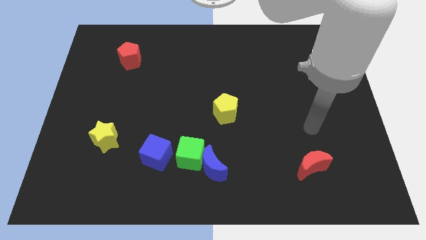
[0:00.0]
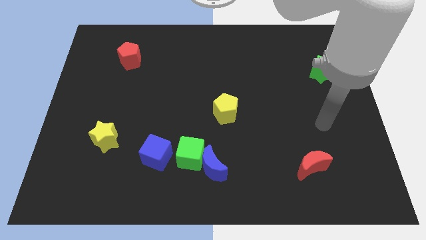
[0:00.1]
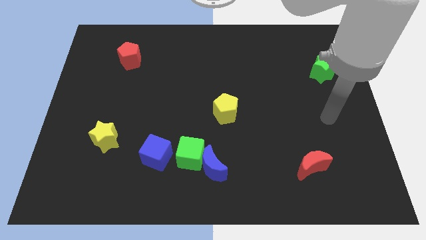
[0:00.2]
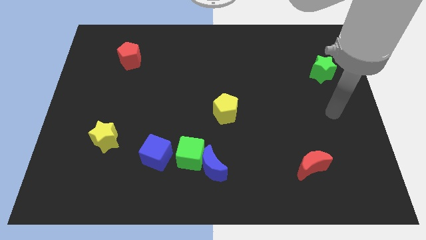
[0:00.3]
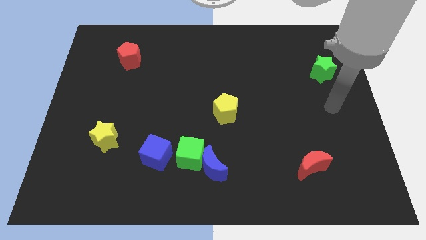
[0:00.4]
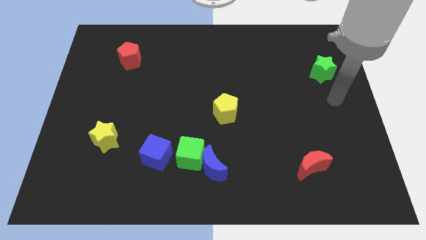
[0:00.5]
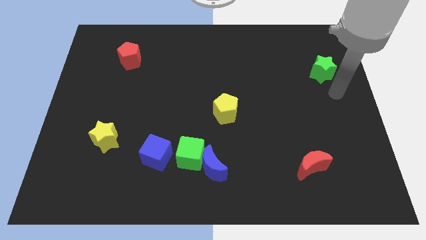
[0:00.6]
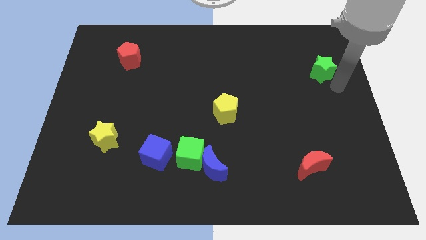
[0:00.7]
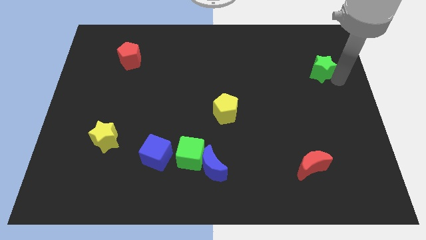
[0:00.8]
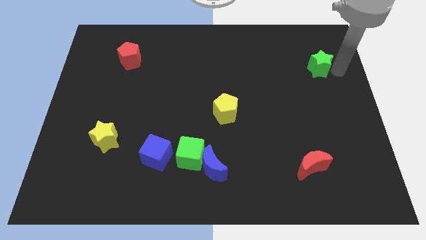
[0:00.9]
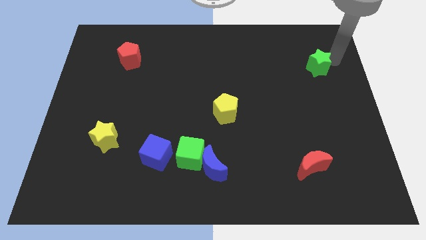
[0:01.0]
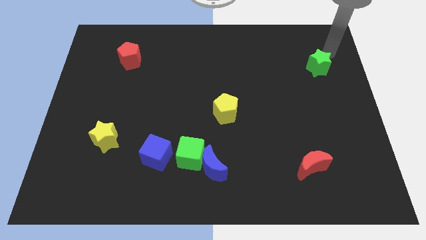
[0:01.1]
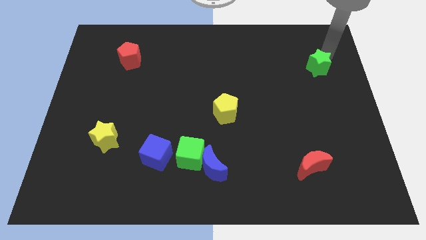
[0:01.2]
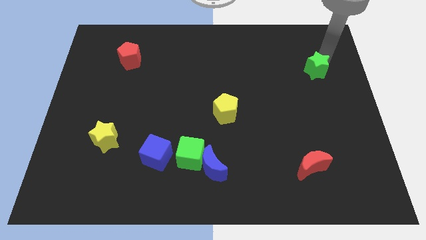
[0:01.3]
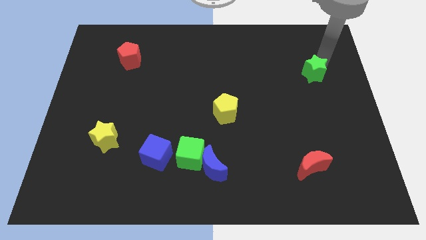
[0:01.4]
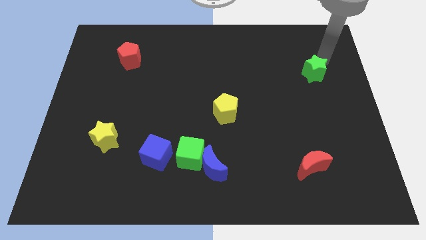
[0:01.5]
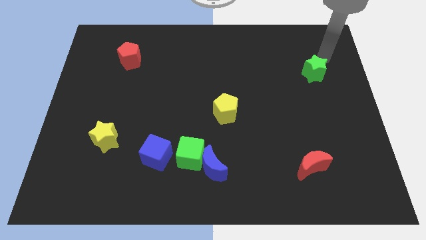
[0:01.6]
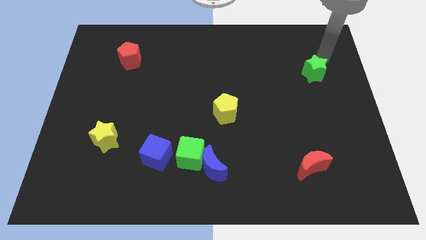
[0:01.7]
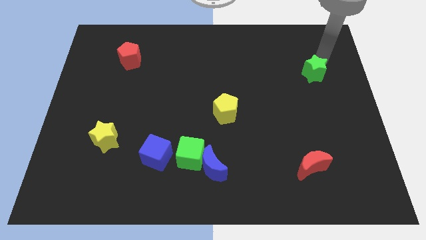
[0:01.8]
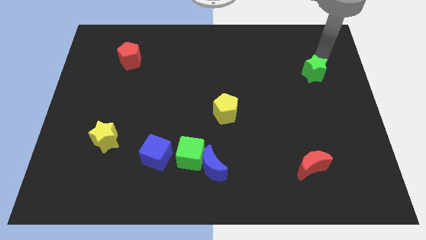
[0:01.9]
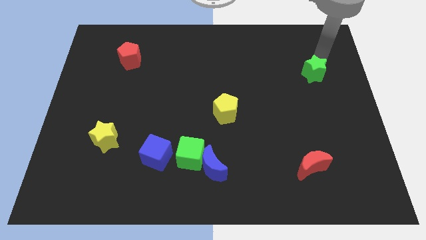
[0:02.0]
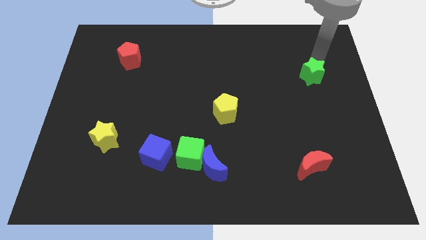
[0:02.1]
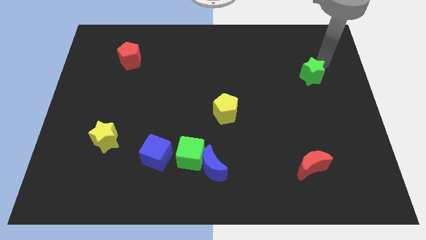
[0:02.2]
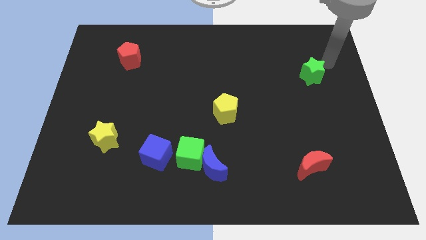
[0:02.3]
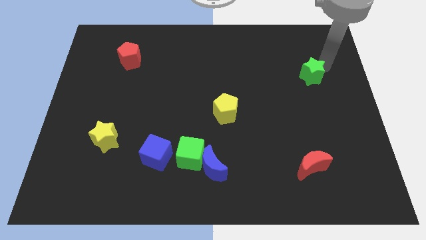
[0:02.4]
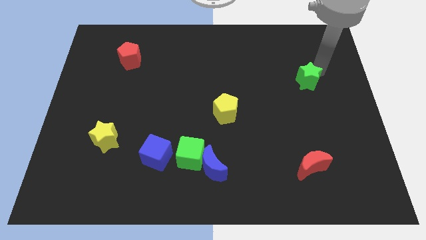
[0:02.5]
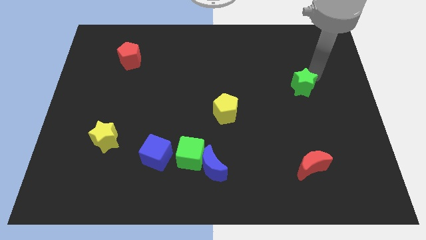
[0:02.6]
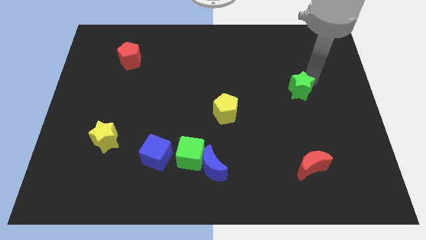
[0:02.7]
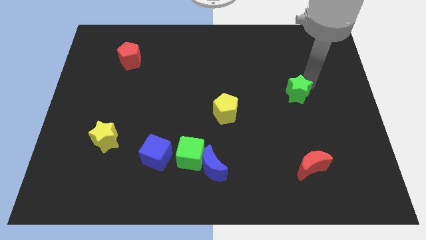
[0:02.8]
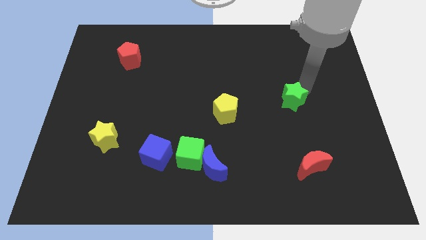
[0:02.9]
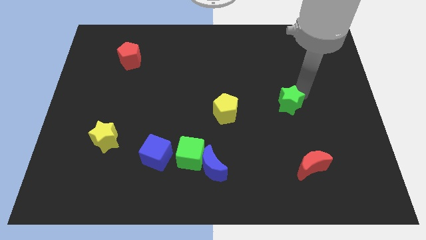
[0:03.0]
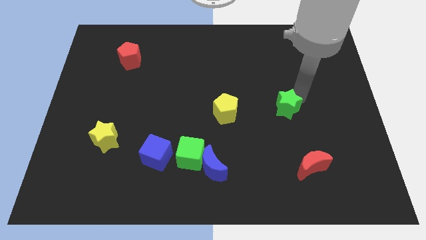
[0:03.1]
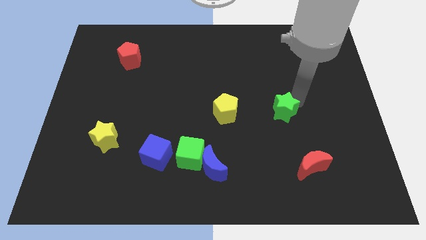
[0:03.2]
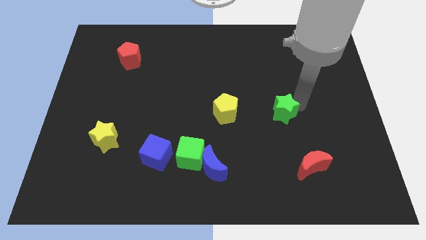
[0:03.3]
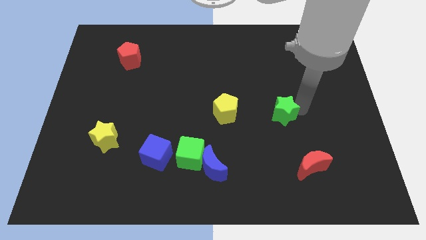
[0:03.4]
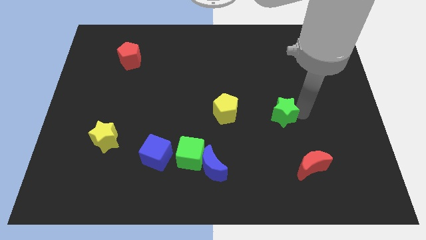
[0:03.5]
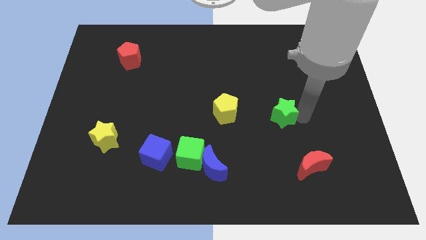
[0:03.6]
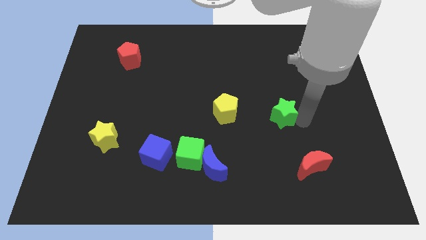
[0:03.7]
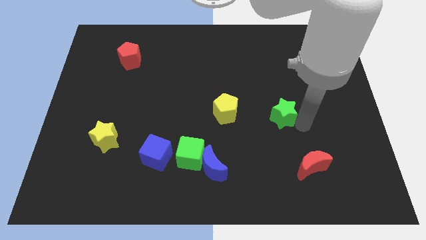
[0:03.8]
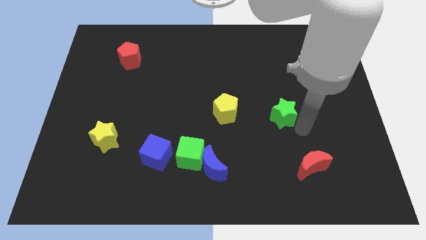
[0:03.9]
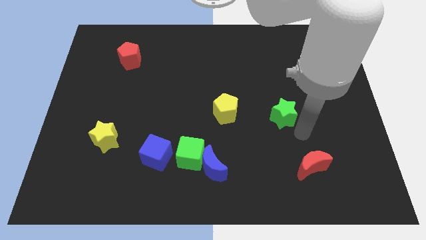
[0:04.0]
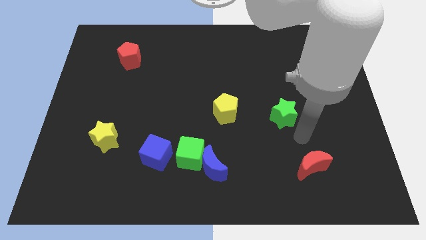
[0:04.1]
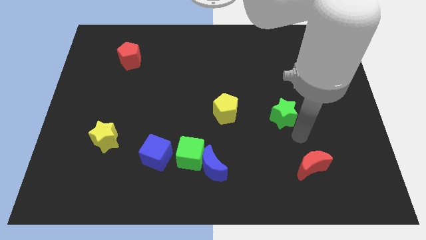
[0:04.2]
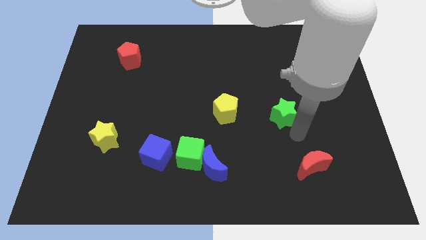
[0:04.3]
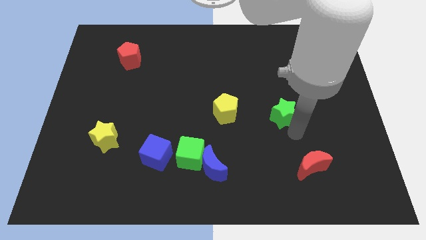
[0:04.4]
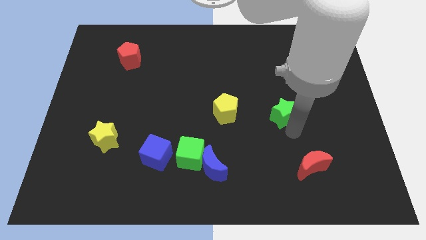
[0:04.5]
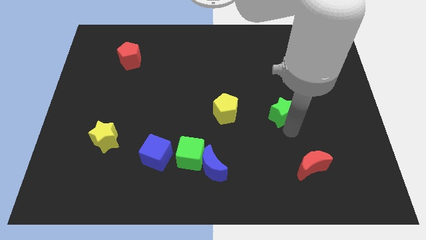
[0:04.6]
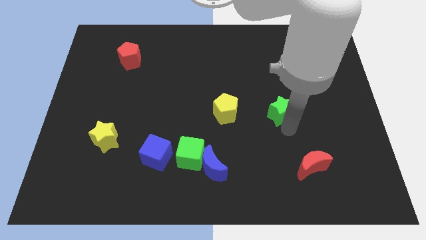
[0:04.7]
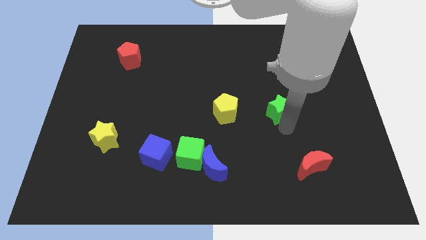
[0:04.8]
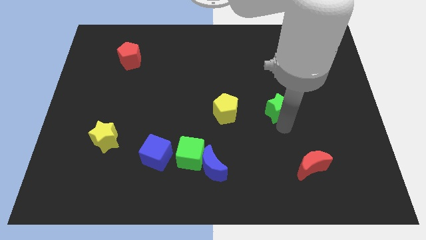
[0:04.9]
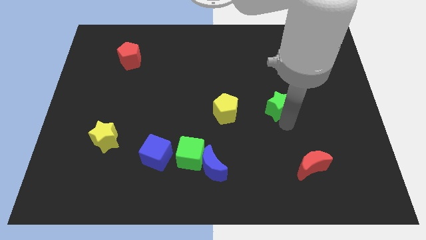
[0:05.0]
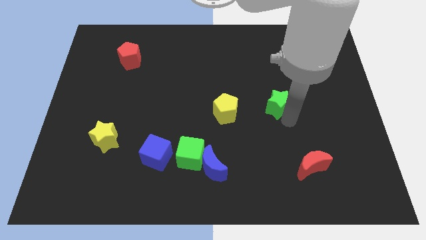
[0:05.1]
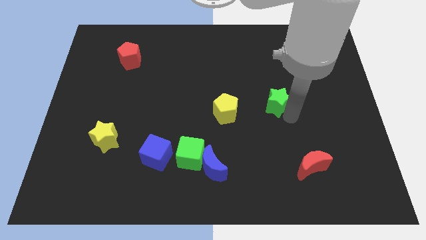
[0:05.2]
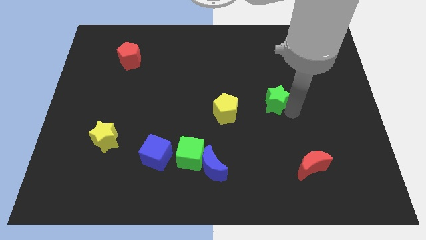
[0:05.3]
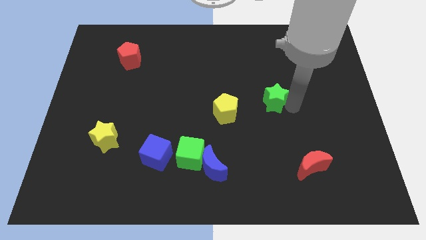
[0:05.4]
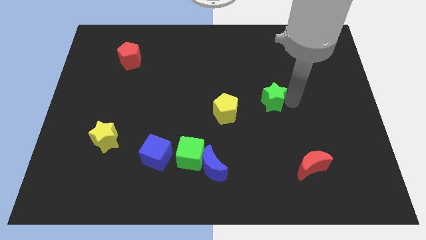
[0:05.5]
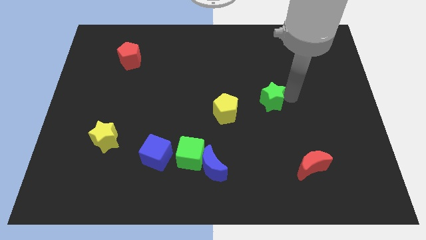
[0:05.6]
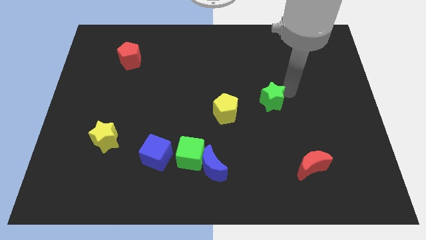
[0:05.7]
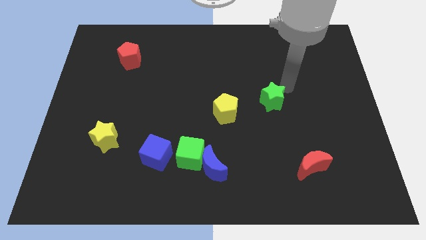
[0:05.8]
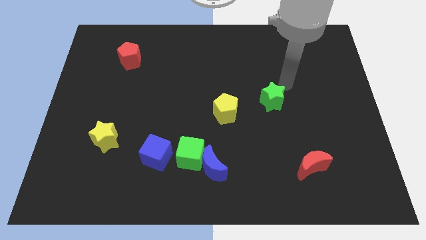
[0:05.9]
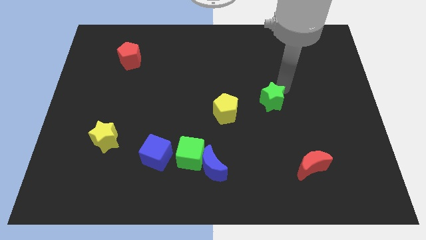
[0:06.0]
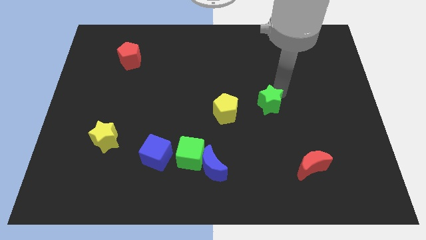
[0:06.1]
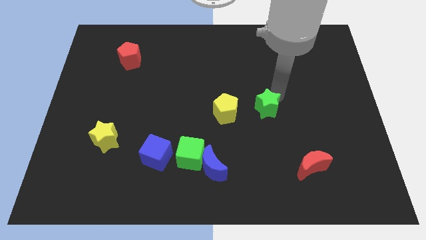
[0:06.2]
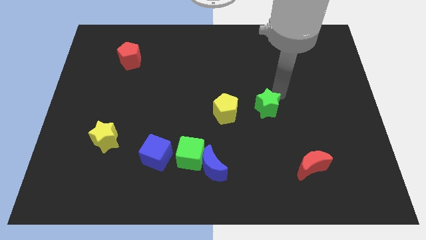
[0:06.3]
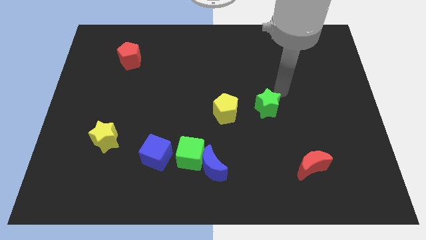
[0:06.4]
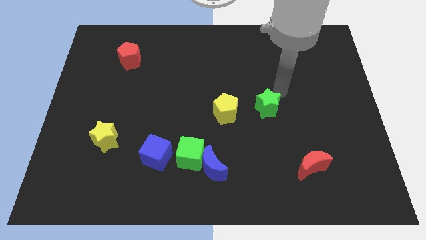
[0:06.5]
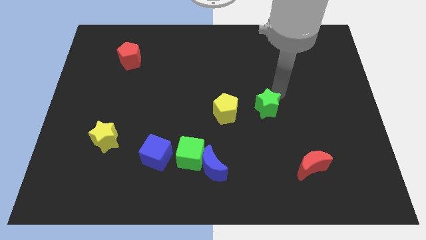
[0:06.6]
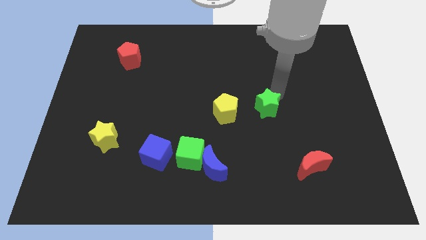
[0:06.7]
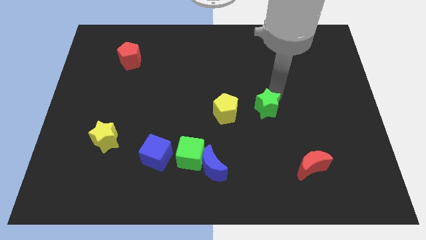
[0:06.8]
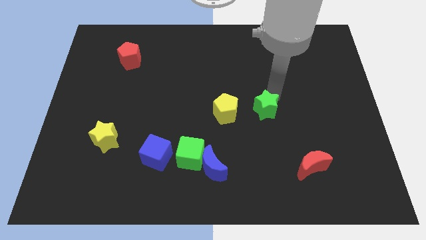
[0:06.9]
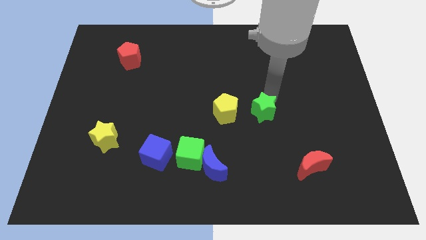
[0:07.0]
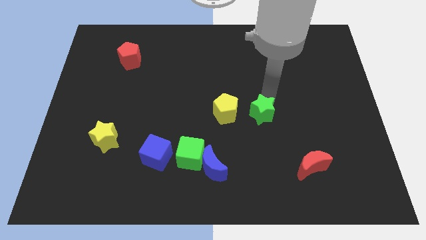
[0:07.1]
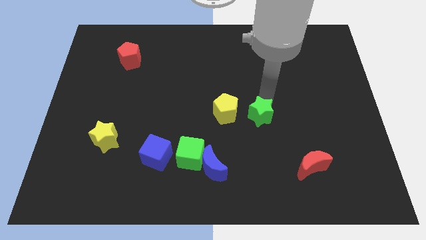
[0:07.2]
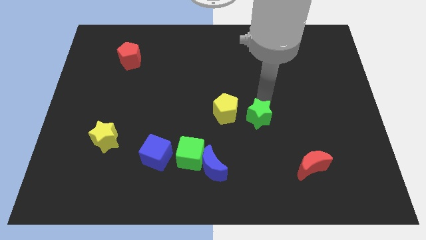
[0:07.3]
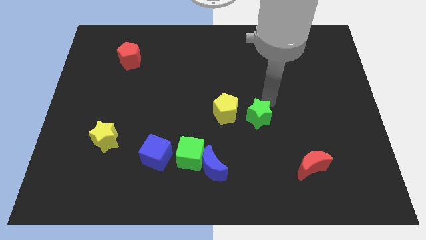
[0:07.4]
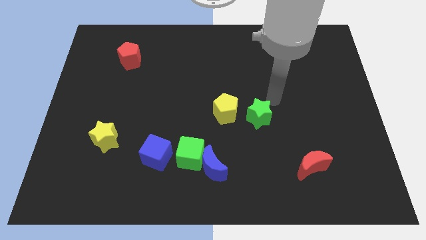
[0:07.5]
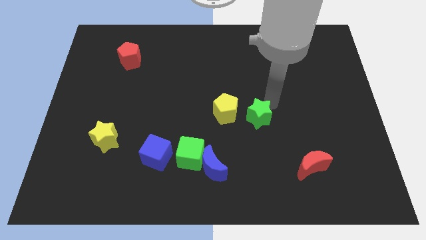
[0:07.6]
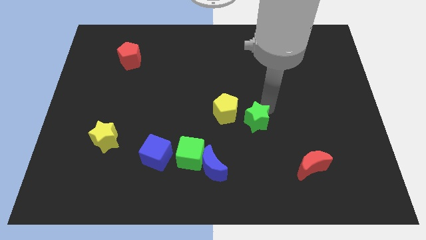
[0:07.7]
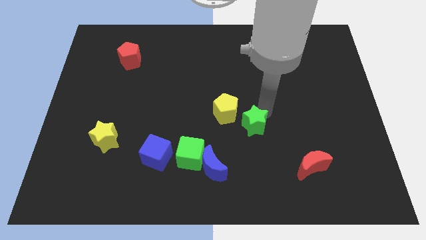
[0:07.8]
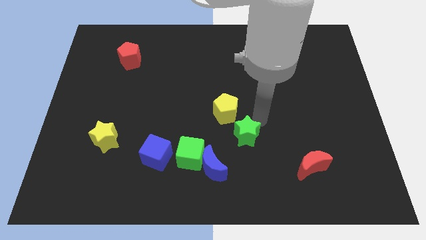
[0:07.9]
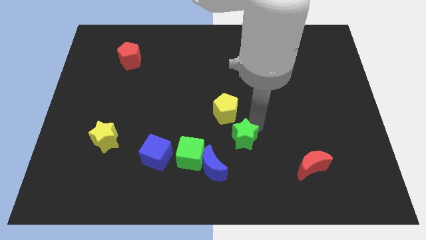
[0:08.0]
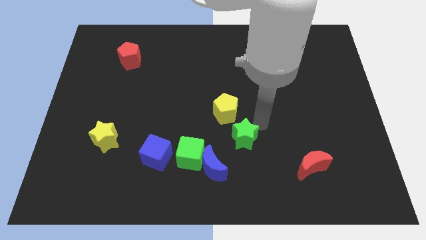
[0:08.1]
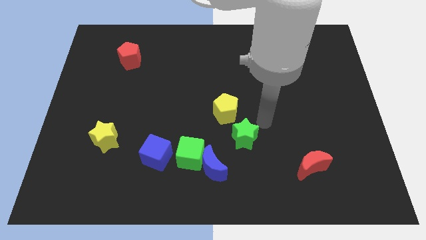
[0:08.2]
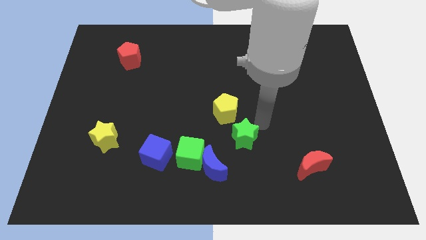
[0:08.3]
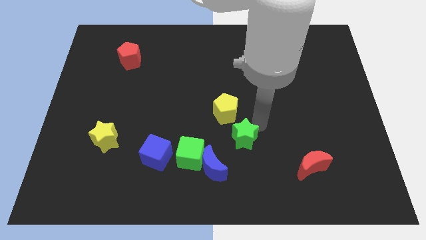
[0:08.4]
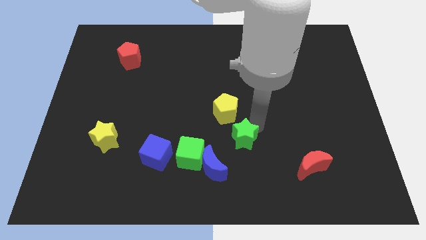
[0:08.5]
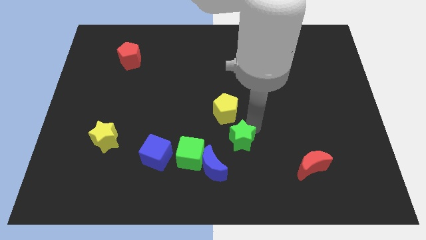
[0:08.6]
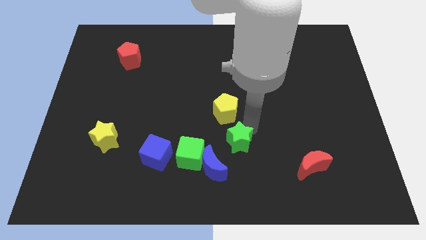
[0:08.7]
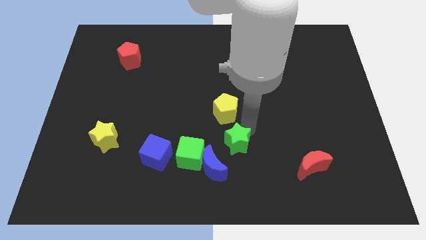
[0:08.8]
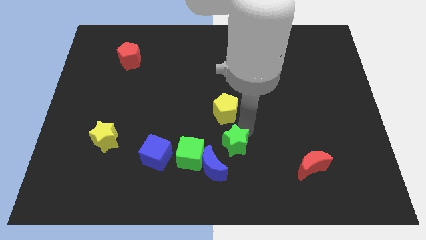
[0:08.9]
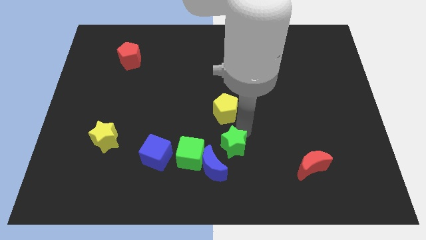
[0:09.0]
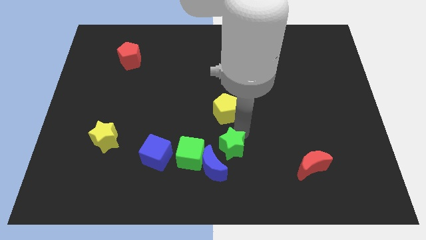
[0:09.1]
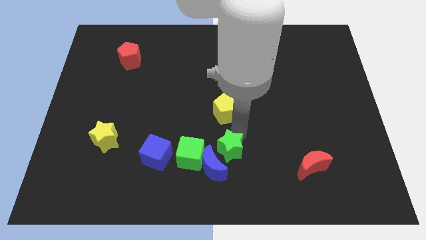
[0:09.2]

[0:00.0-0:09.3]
push the green star just right of the blue cube
